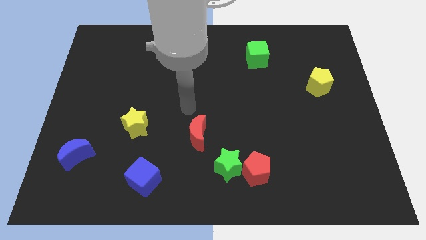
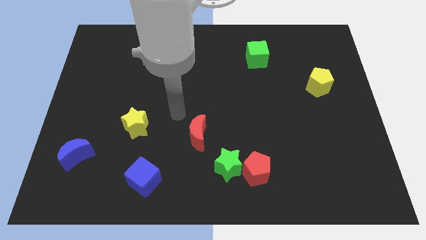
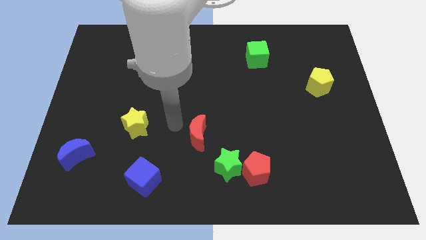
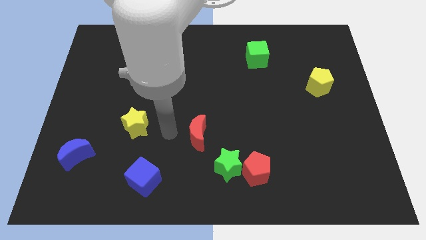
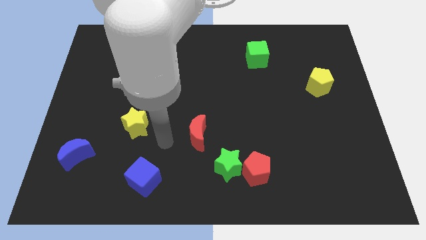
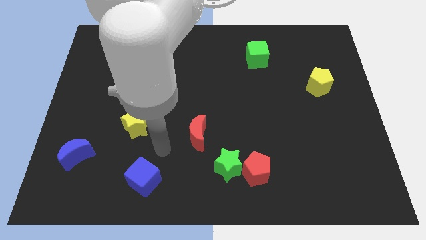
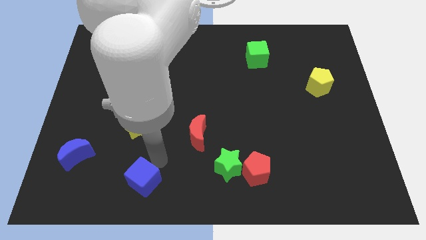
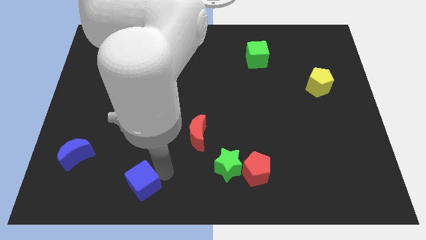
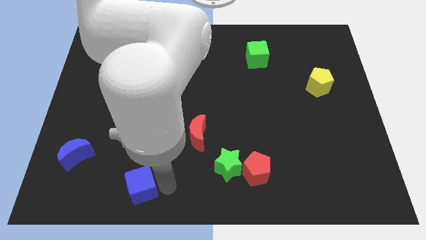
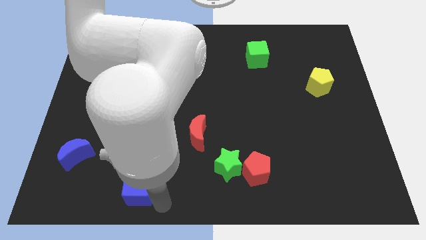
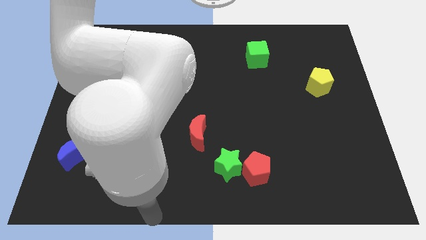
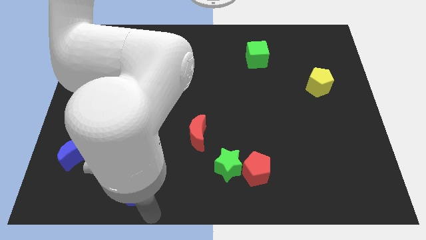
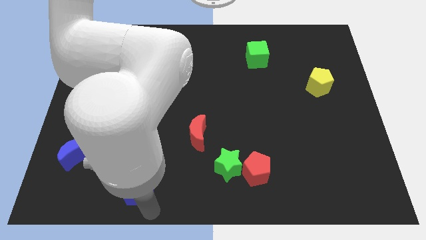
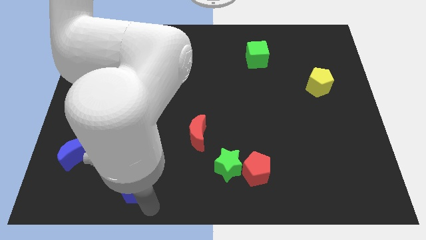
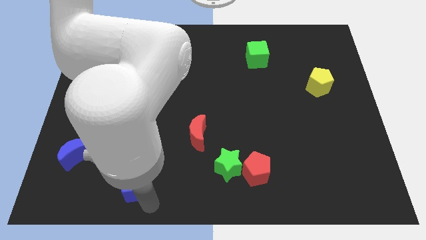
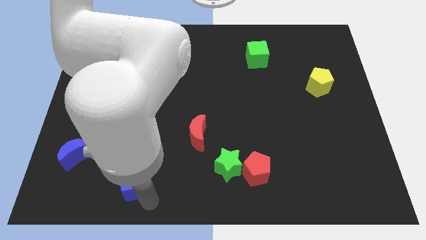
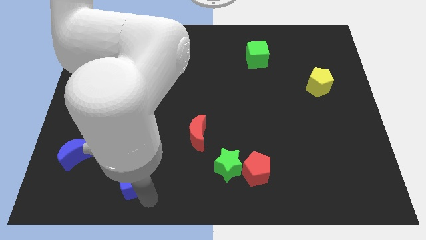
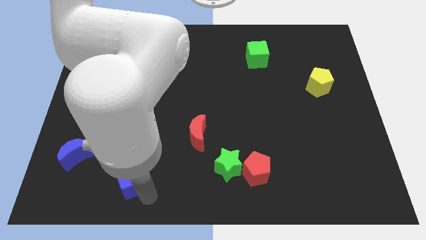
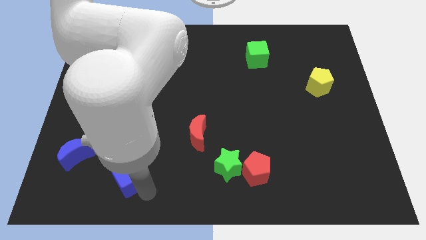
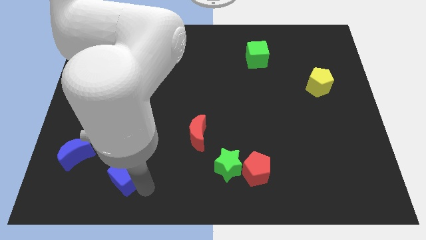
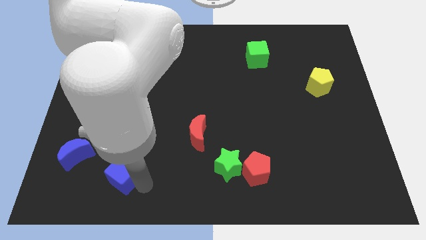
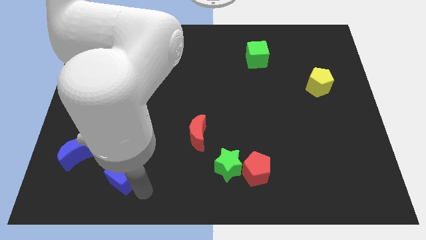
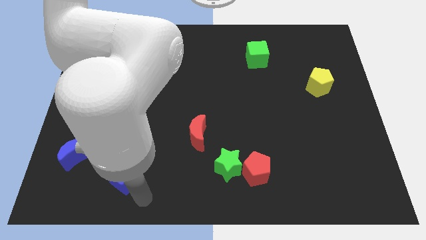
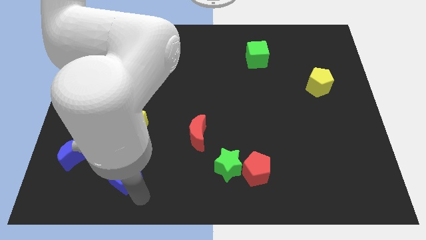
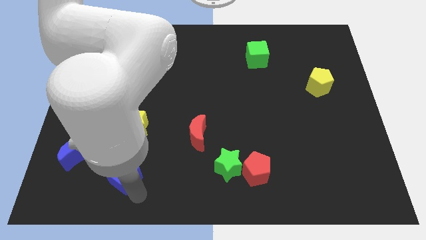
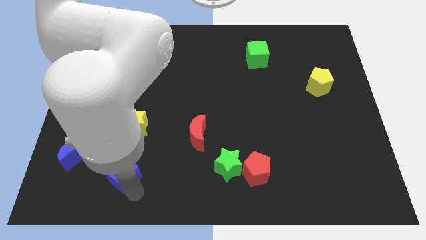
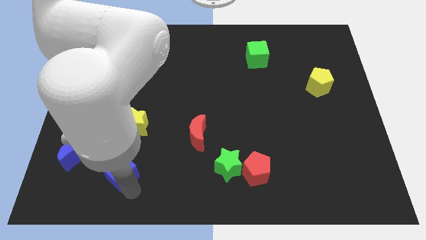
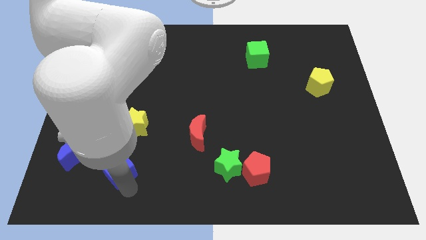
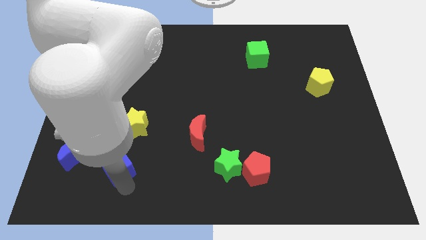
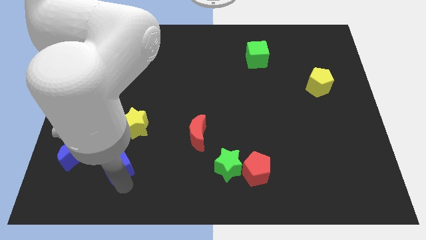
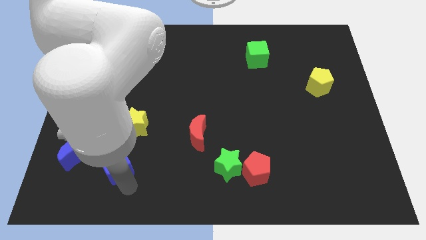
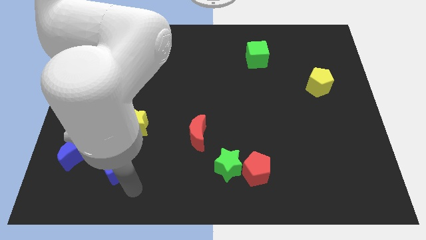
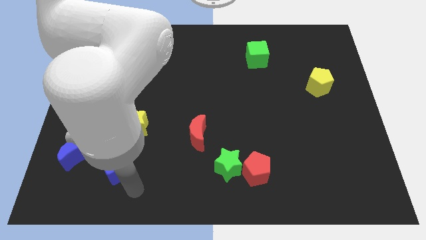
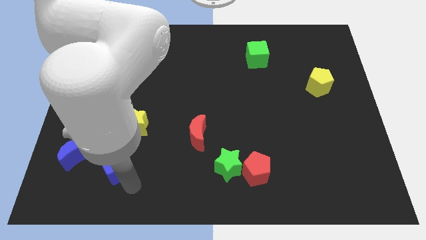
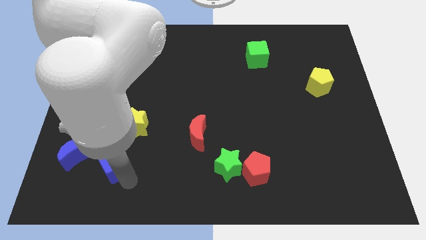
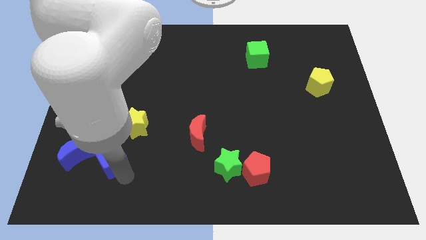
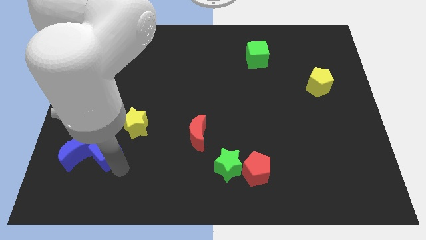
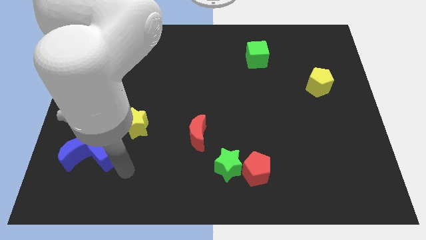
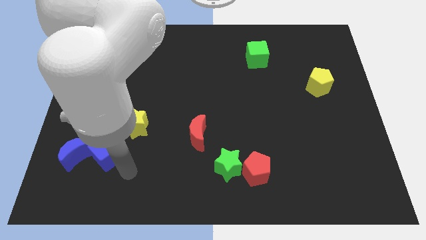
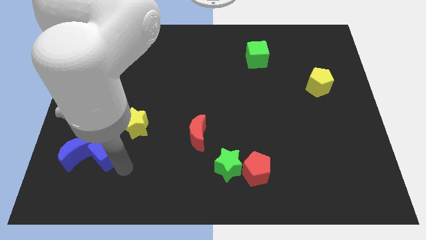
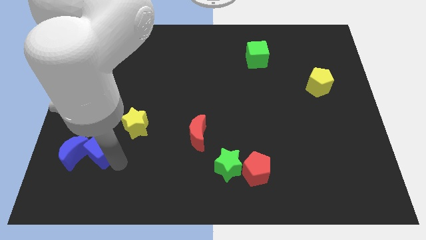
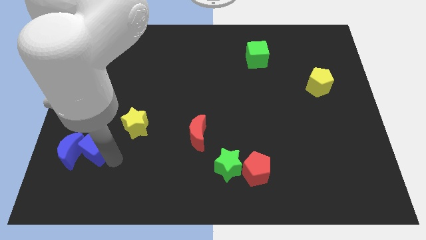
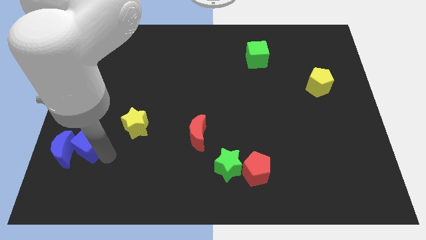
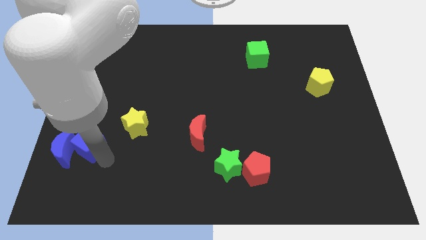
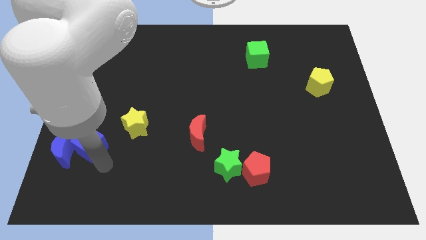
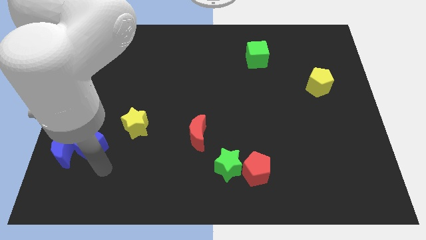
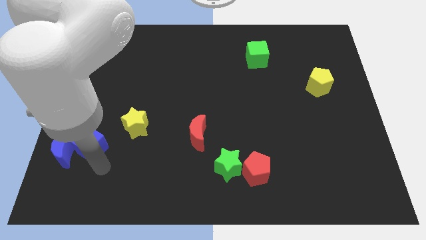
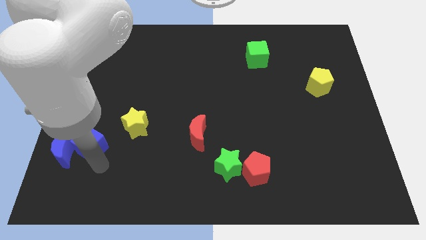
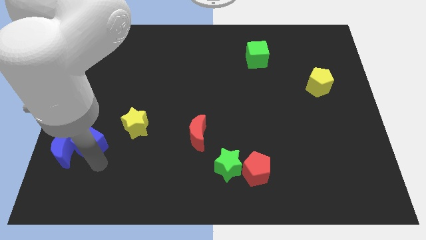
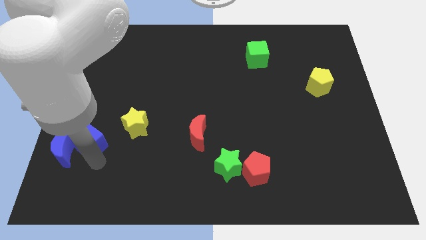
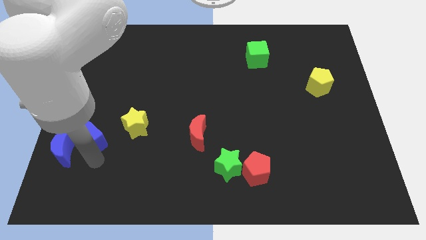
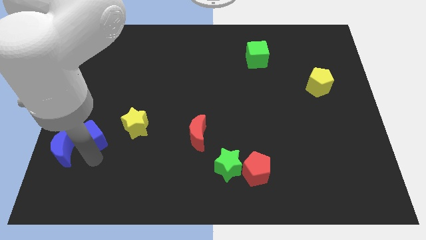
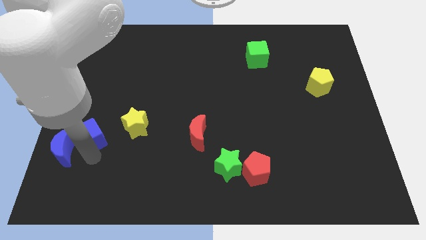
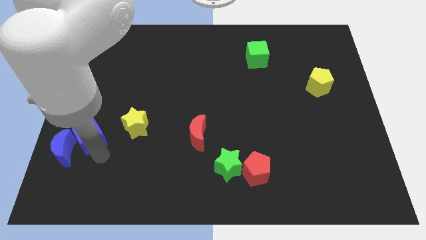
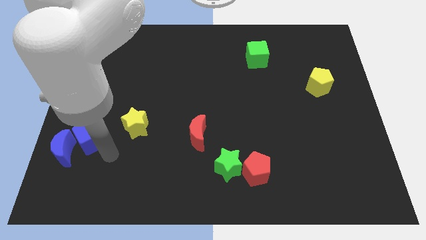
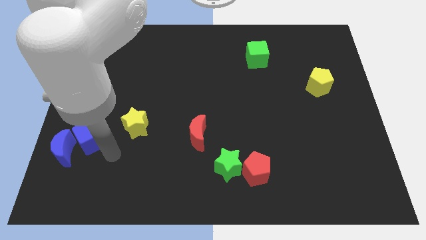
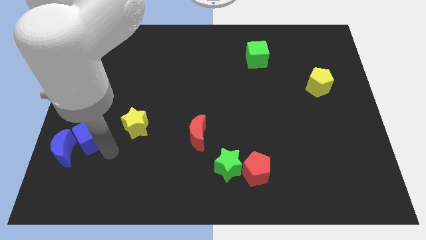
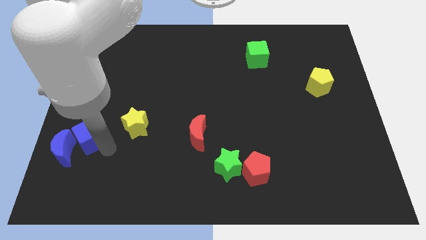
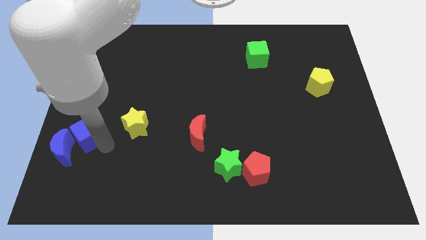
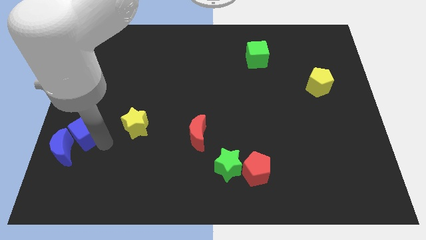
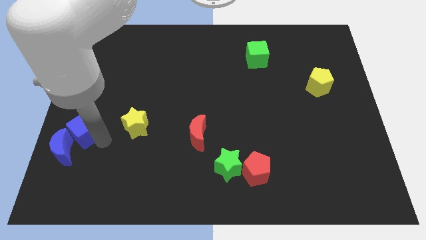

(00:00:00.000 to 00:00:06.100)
slide the blue cube to the left side of the board
